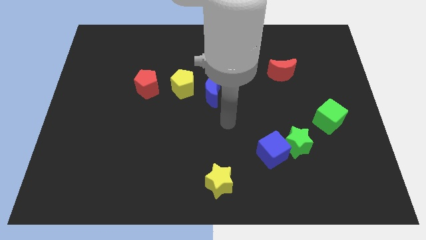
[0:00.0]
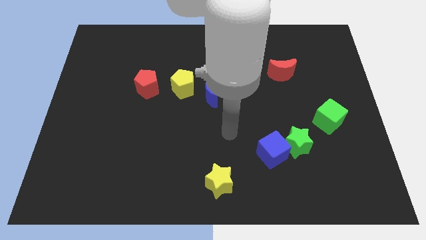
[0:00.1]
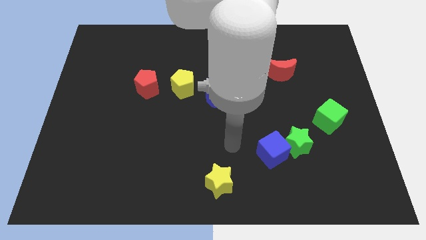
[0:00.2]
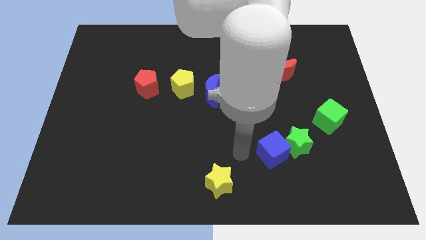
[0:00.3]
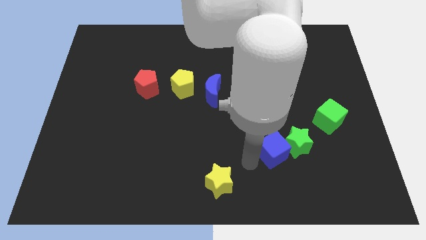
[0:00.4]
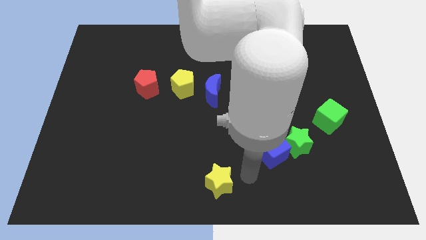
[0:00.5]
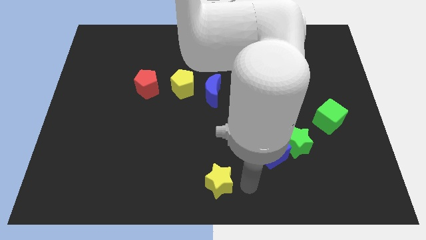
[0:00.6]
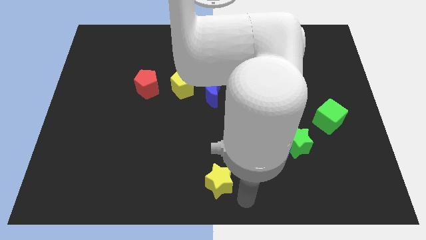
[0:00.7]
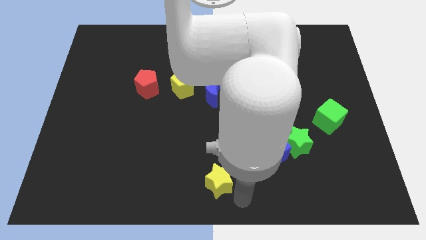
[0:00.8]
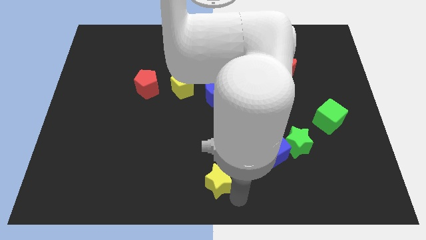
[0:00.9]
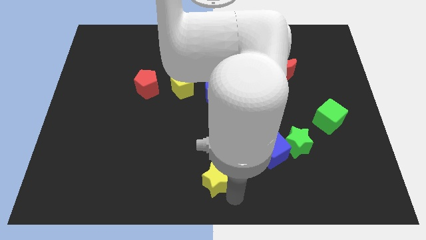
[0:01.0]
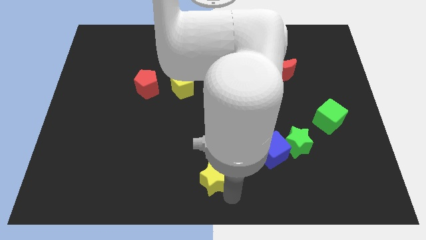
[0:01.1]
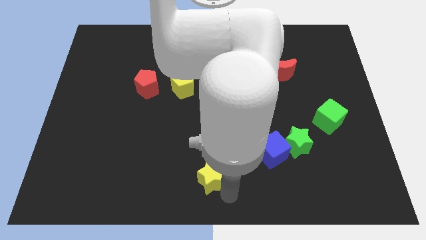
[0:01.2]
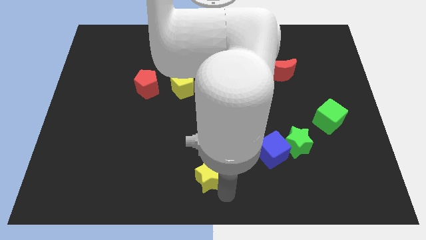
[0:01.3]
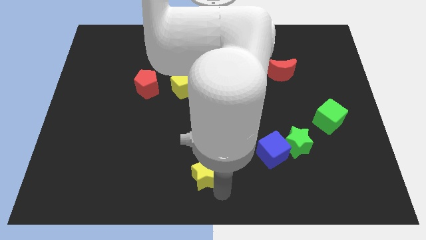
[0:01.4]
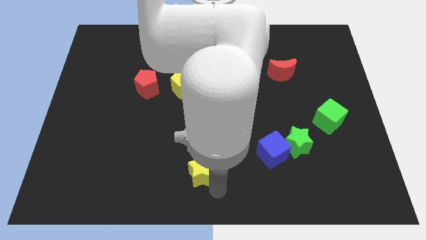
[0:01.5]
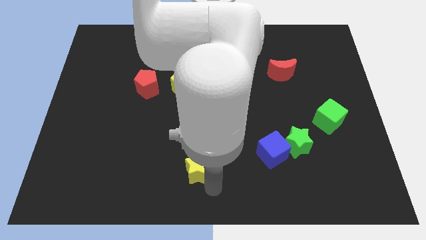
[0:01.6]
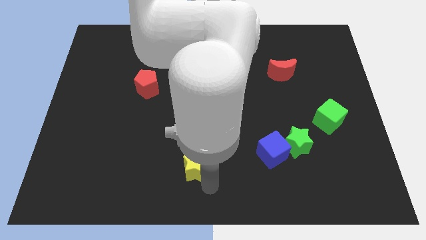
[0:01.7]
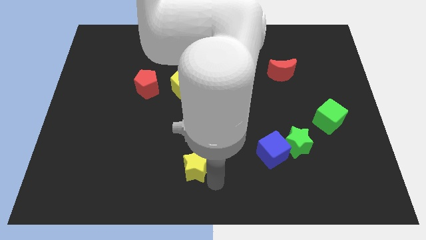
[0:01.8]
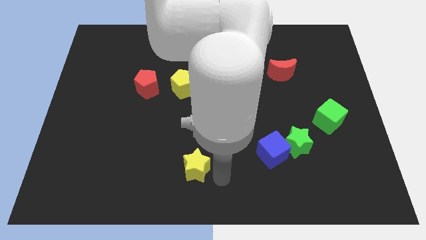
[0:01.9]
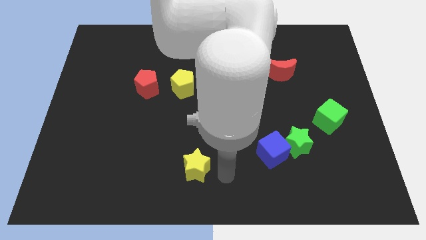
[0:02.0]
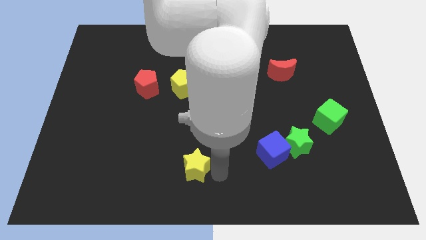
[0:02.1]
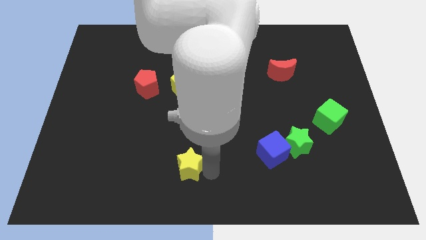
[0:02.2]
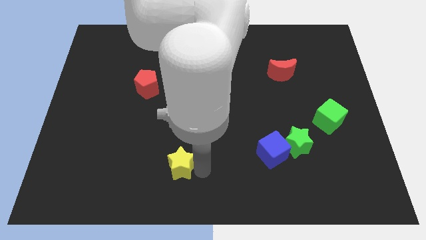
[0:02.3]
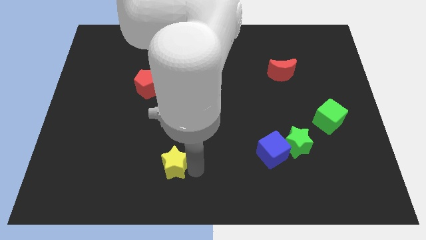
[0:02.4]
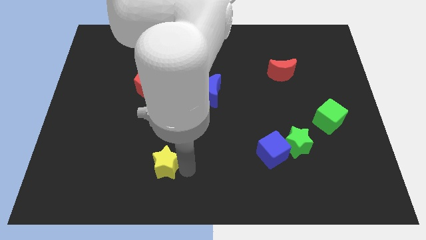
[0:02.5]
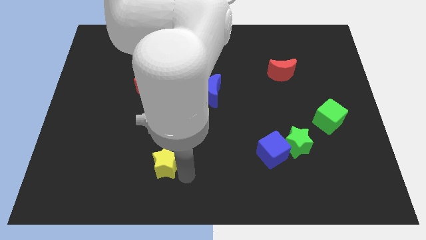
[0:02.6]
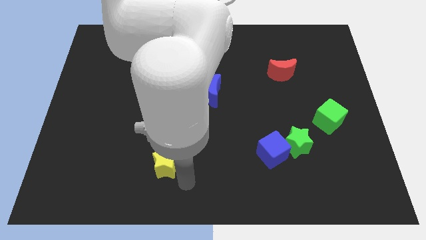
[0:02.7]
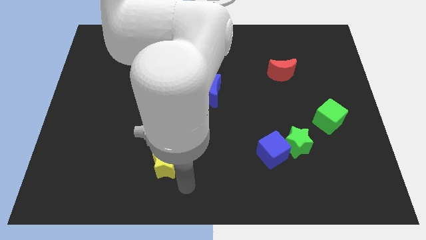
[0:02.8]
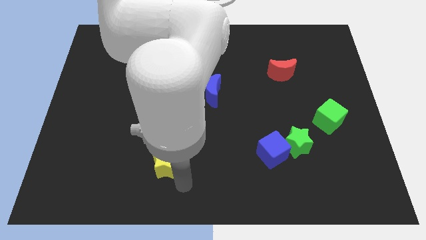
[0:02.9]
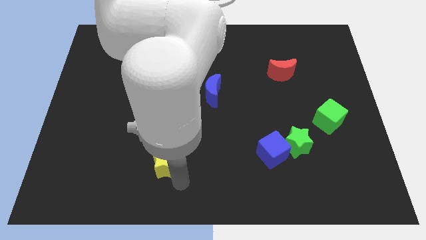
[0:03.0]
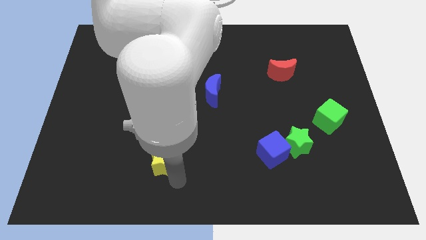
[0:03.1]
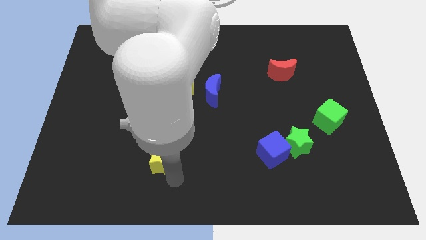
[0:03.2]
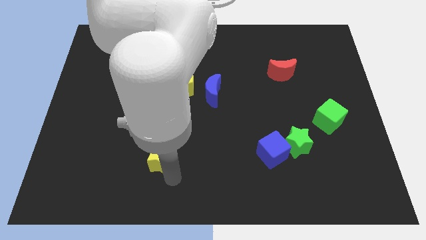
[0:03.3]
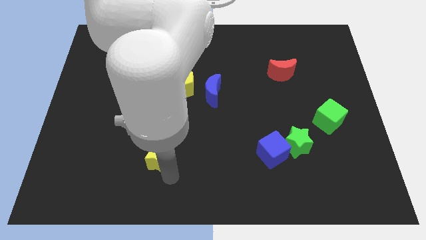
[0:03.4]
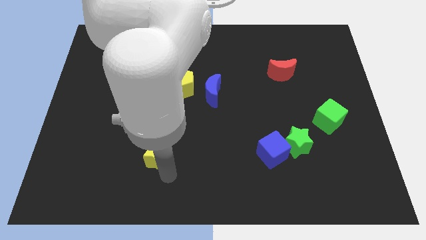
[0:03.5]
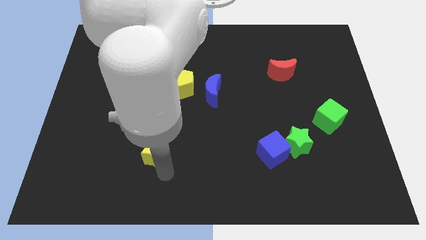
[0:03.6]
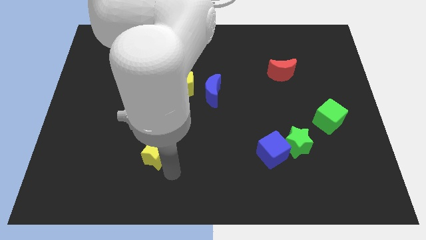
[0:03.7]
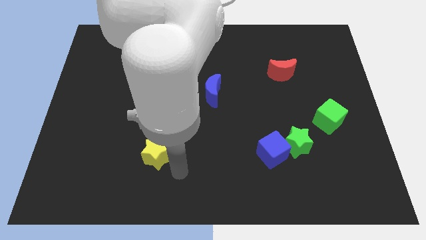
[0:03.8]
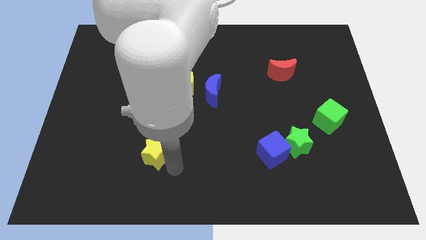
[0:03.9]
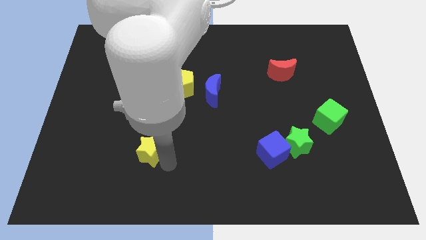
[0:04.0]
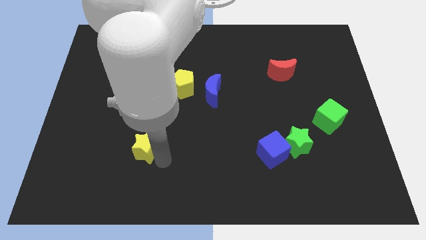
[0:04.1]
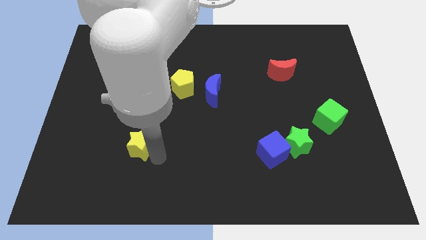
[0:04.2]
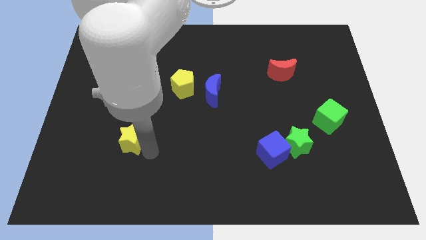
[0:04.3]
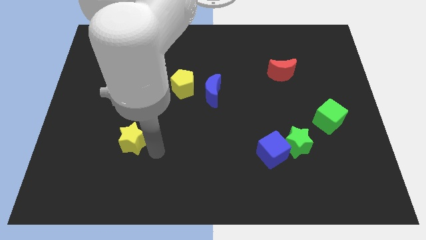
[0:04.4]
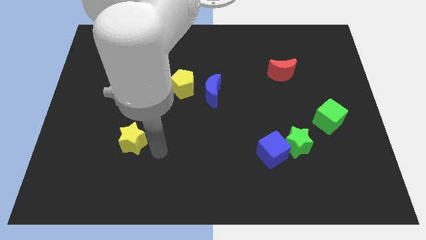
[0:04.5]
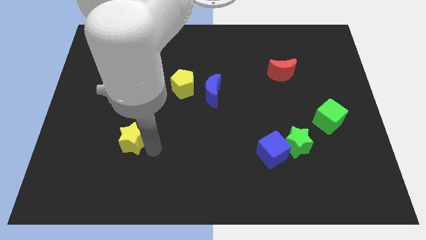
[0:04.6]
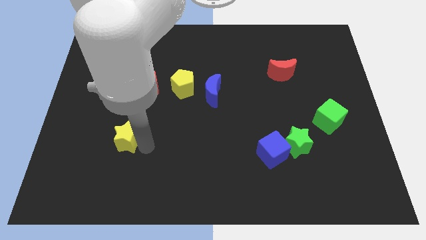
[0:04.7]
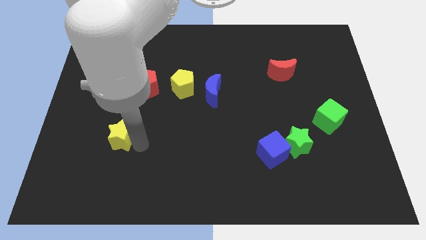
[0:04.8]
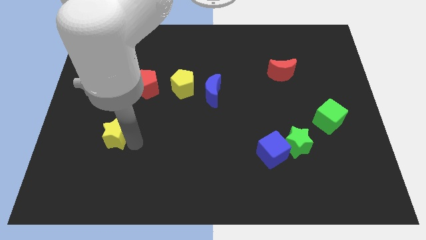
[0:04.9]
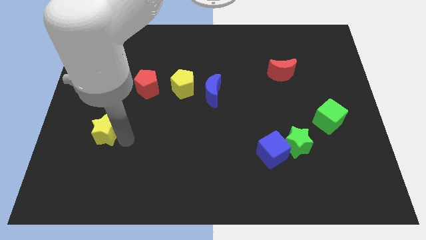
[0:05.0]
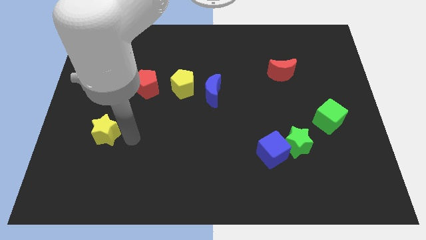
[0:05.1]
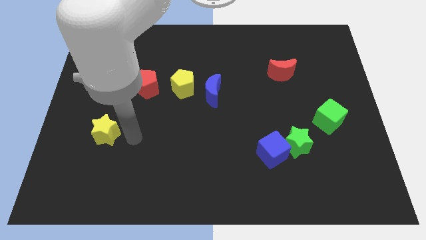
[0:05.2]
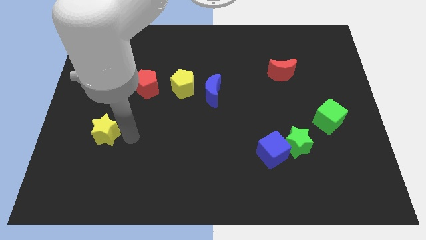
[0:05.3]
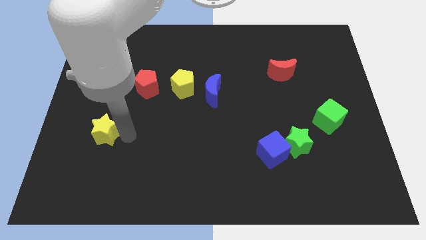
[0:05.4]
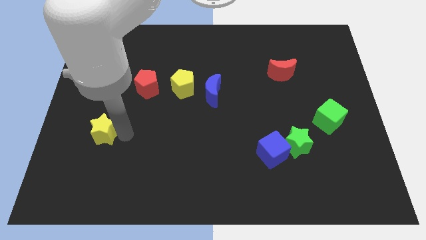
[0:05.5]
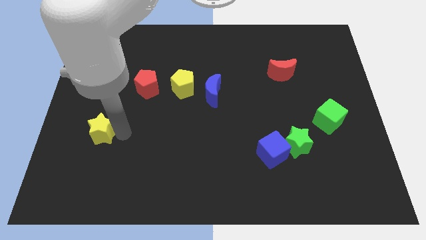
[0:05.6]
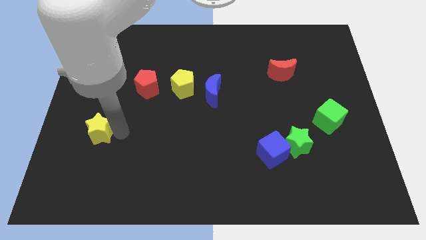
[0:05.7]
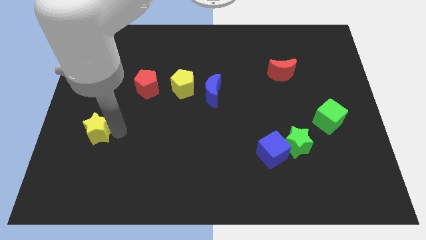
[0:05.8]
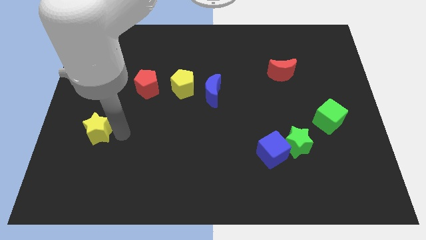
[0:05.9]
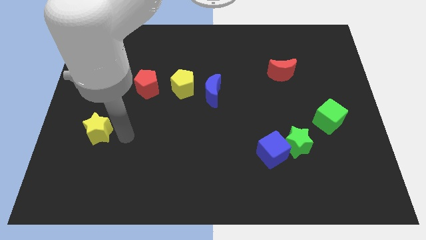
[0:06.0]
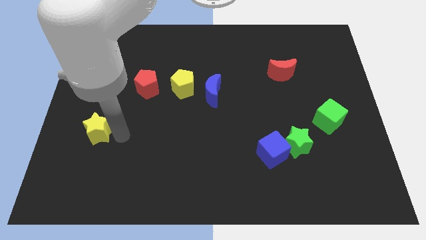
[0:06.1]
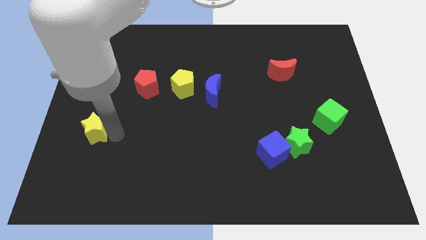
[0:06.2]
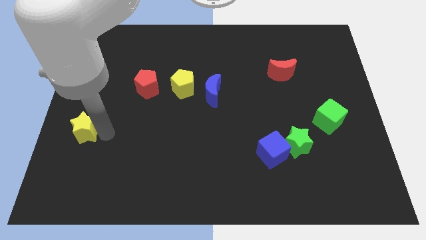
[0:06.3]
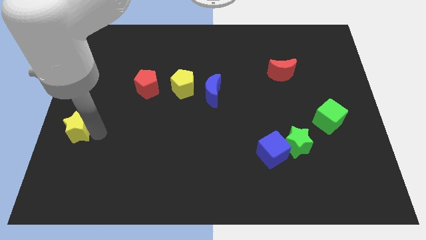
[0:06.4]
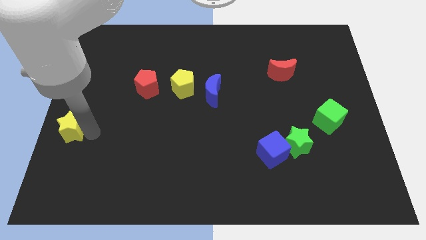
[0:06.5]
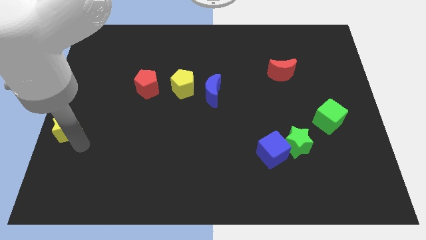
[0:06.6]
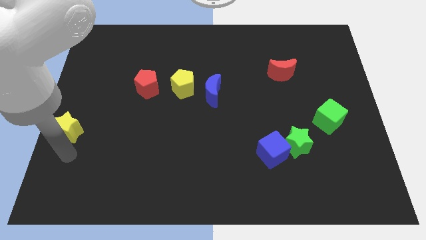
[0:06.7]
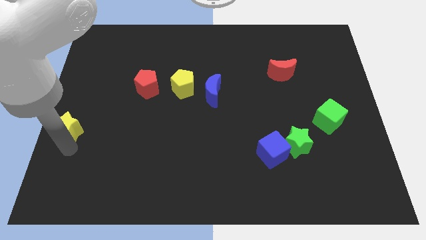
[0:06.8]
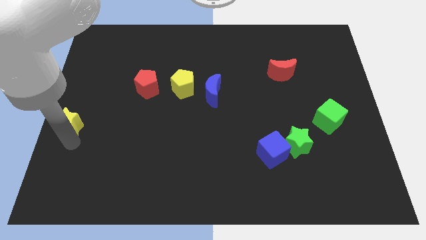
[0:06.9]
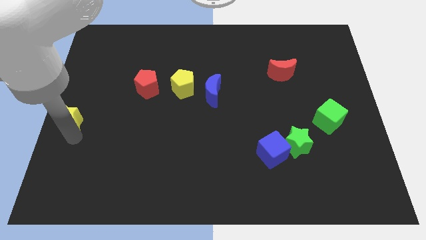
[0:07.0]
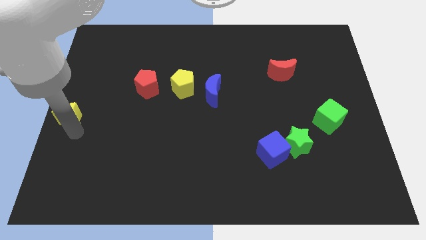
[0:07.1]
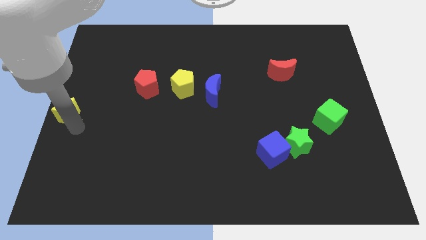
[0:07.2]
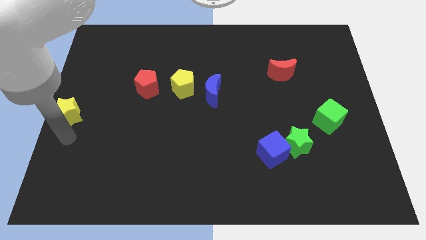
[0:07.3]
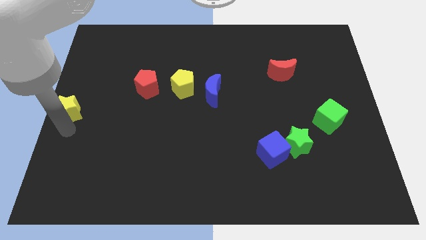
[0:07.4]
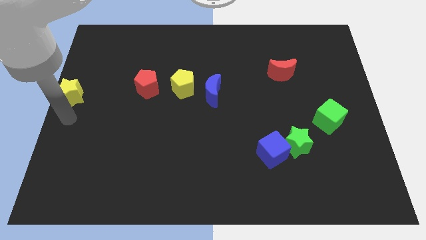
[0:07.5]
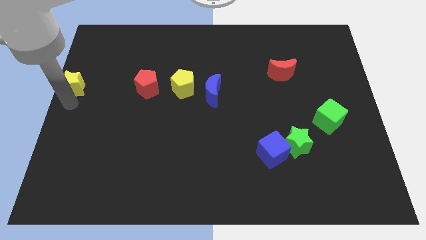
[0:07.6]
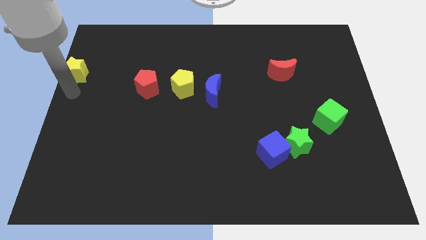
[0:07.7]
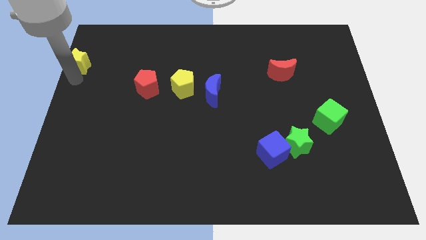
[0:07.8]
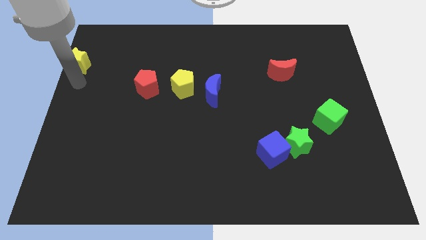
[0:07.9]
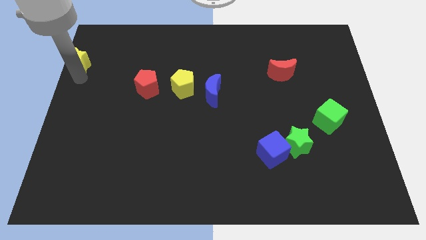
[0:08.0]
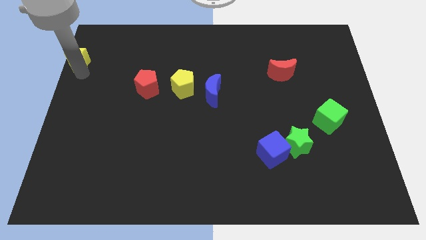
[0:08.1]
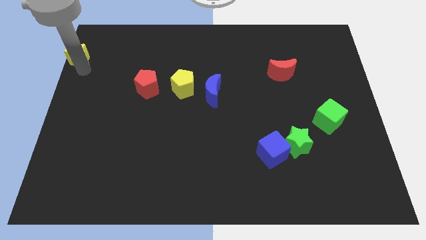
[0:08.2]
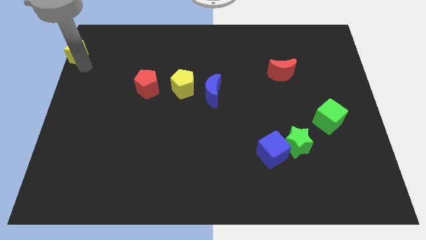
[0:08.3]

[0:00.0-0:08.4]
slide the yellow star to the top left of the board
